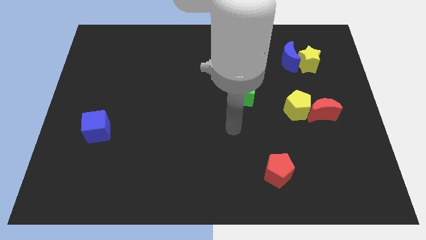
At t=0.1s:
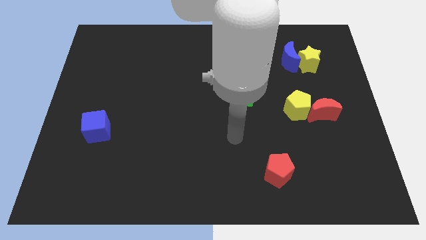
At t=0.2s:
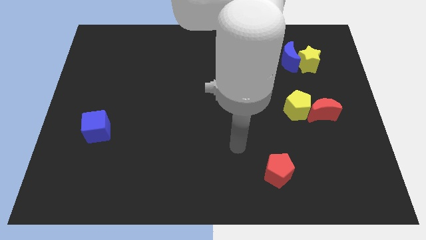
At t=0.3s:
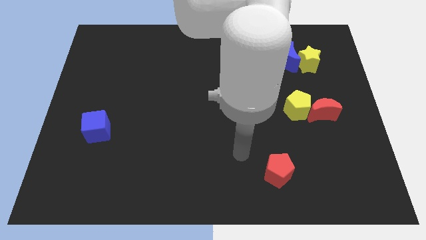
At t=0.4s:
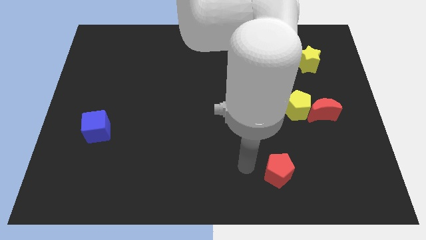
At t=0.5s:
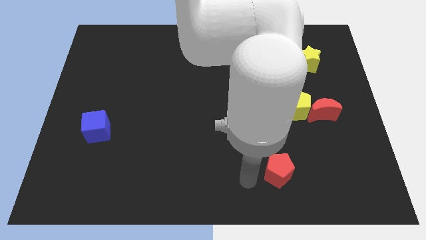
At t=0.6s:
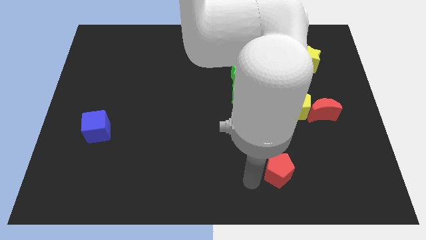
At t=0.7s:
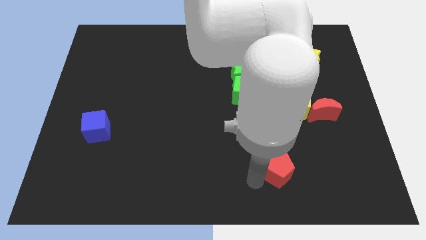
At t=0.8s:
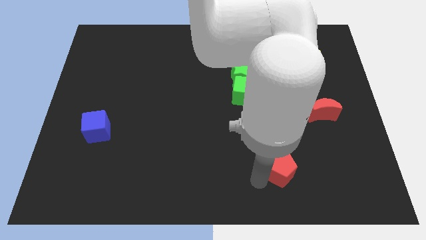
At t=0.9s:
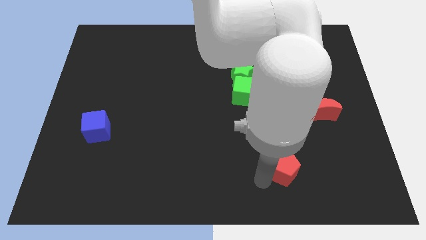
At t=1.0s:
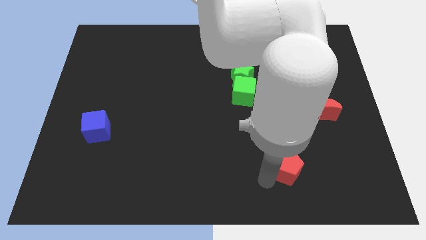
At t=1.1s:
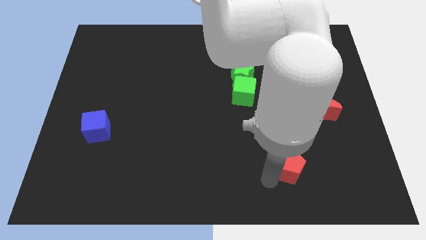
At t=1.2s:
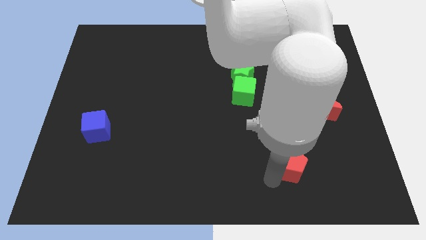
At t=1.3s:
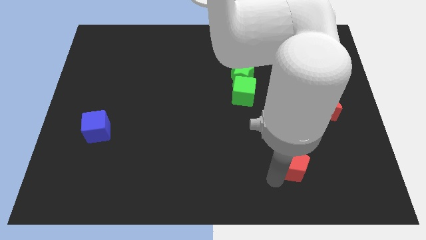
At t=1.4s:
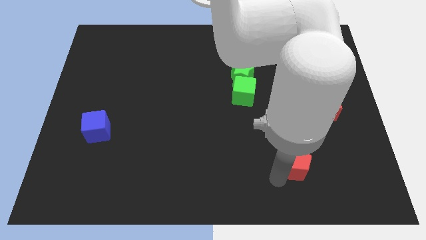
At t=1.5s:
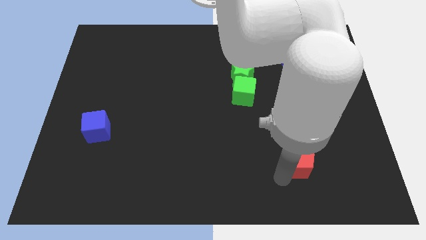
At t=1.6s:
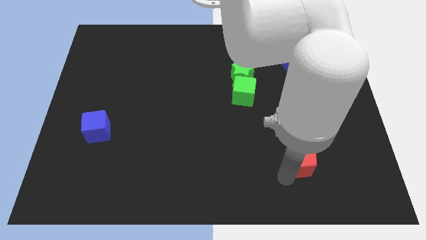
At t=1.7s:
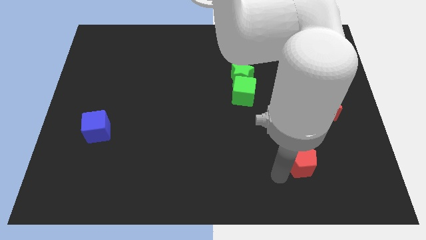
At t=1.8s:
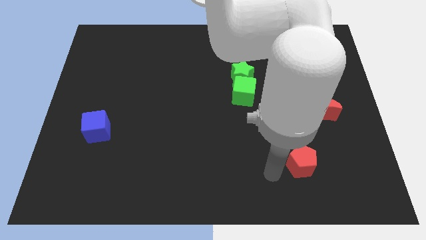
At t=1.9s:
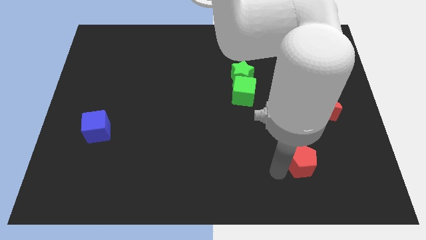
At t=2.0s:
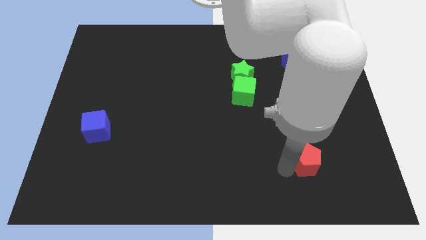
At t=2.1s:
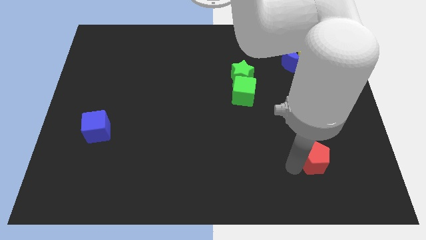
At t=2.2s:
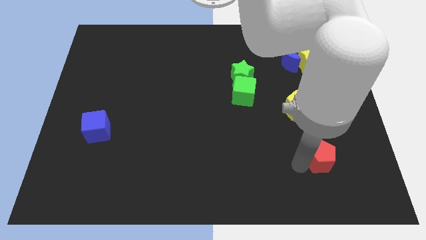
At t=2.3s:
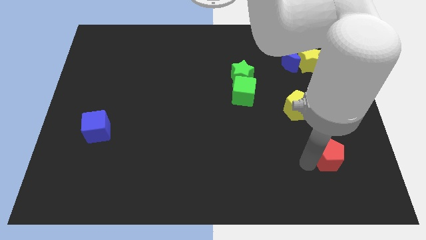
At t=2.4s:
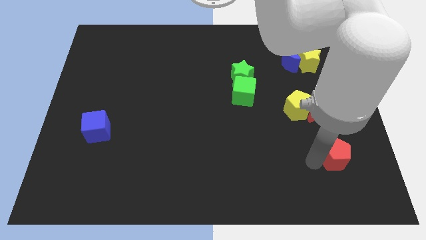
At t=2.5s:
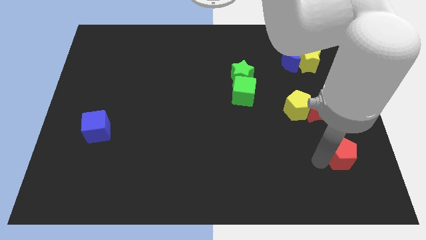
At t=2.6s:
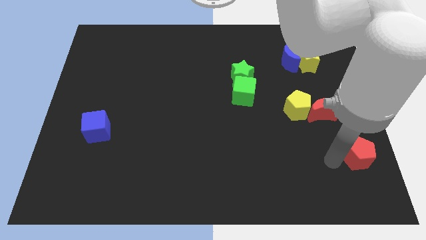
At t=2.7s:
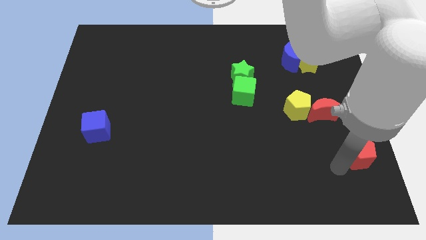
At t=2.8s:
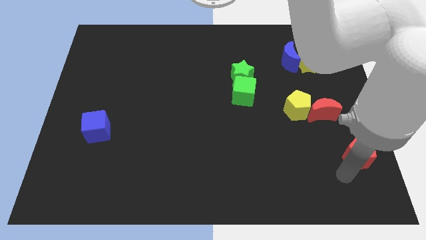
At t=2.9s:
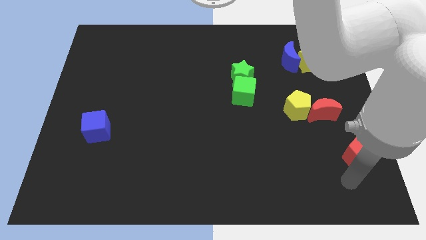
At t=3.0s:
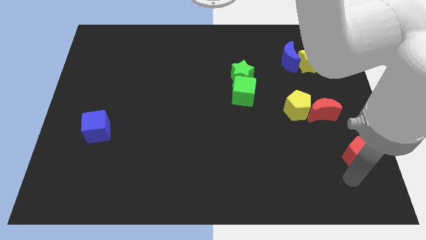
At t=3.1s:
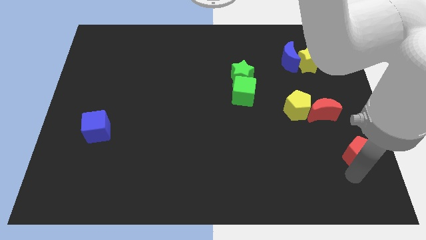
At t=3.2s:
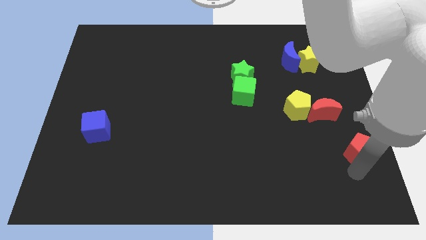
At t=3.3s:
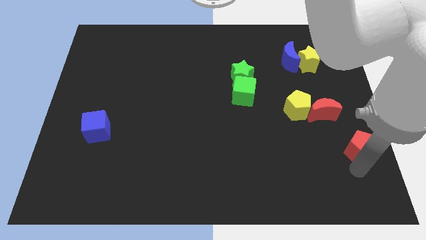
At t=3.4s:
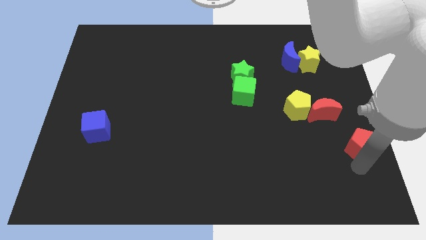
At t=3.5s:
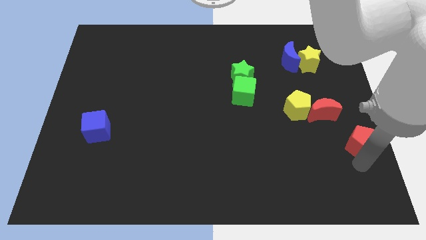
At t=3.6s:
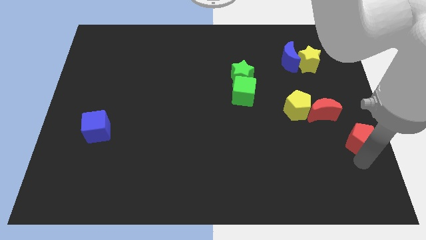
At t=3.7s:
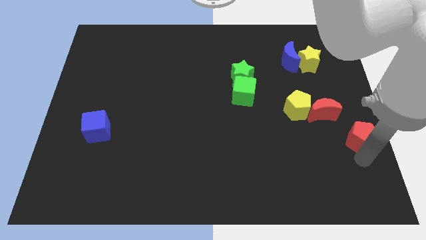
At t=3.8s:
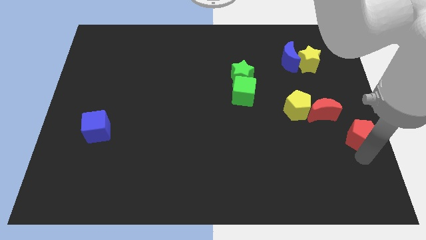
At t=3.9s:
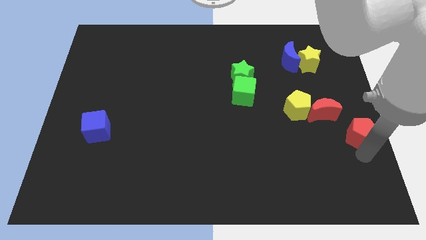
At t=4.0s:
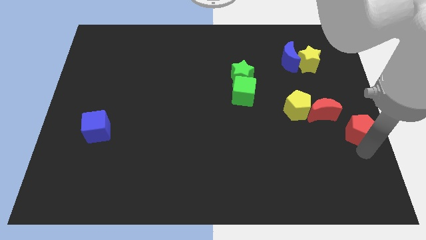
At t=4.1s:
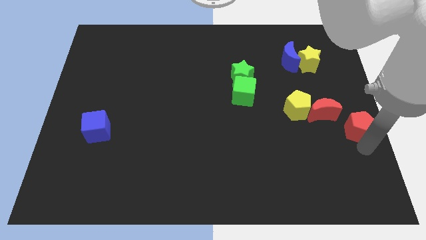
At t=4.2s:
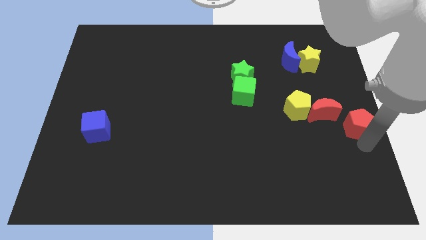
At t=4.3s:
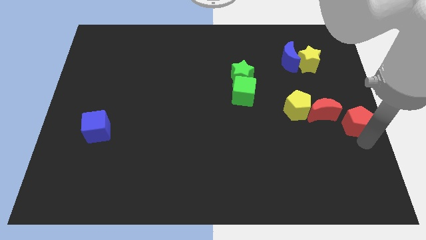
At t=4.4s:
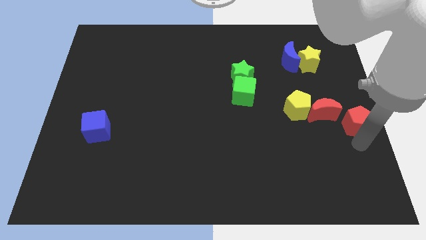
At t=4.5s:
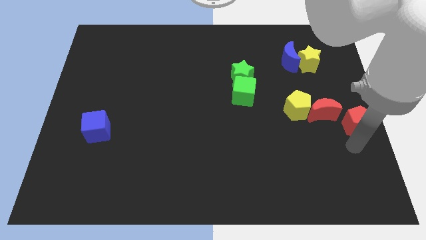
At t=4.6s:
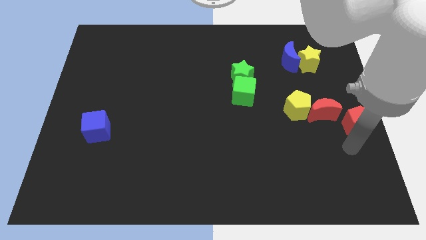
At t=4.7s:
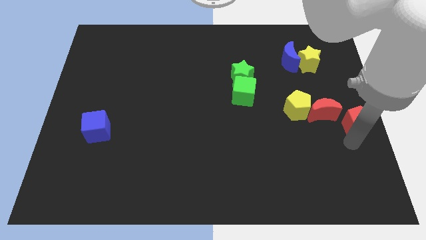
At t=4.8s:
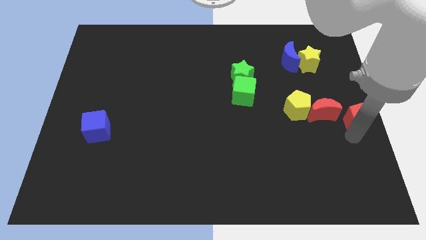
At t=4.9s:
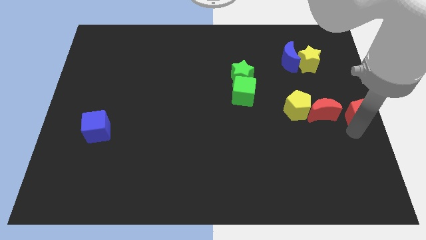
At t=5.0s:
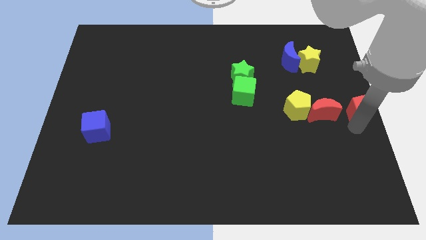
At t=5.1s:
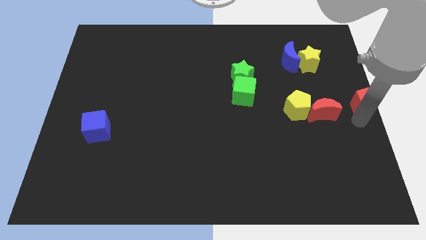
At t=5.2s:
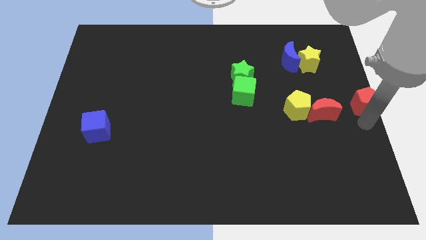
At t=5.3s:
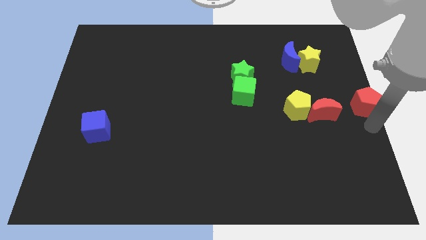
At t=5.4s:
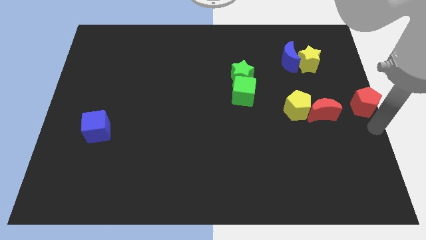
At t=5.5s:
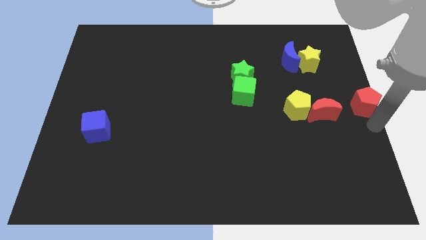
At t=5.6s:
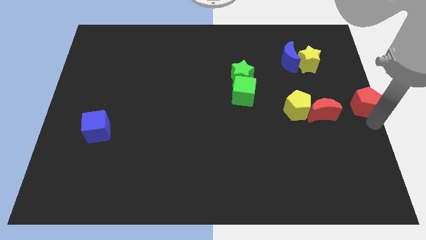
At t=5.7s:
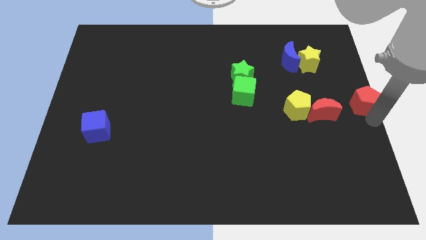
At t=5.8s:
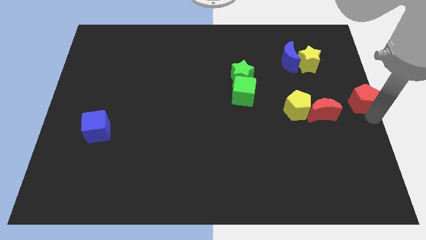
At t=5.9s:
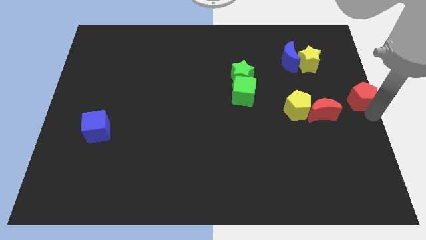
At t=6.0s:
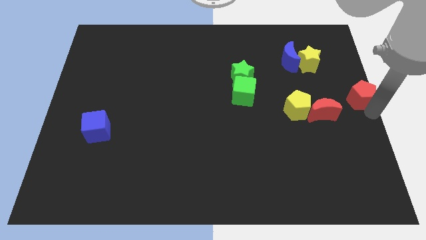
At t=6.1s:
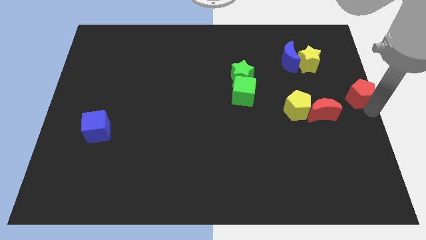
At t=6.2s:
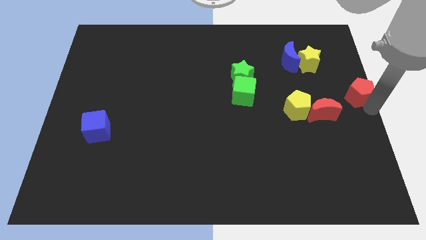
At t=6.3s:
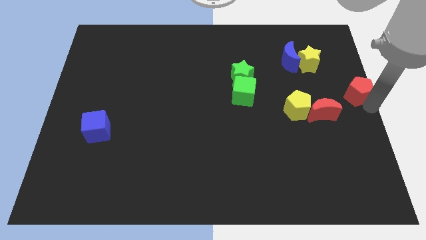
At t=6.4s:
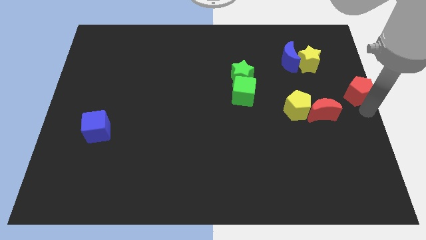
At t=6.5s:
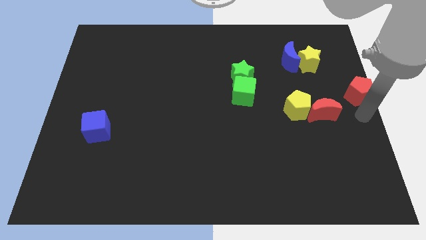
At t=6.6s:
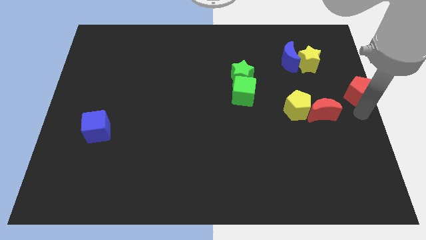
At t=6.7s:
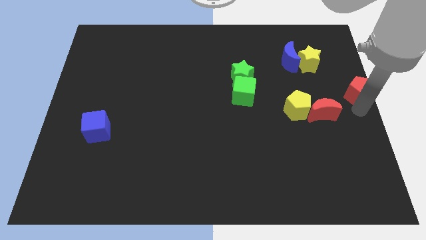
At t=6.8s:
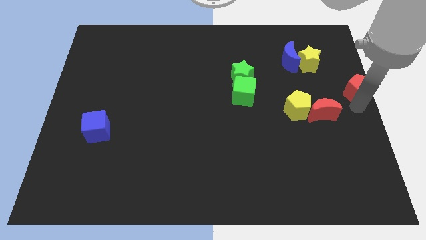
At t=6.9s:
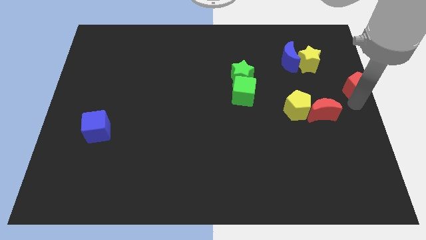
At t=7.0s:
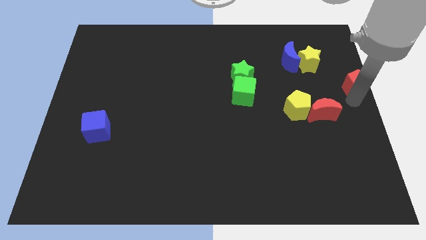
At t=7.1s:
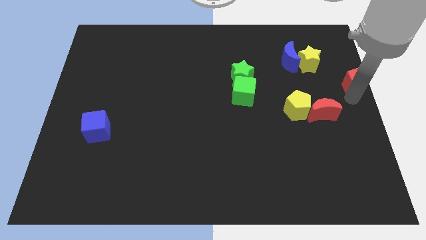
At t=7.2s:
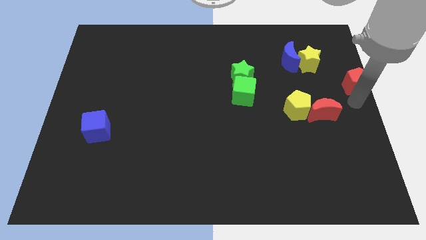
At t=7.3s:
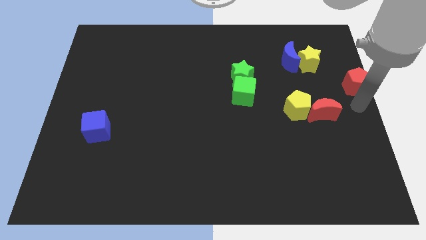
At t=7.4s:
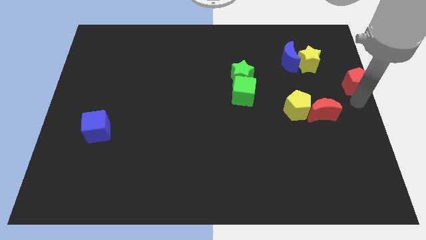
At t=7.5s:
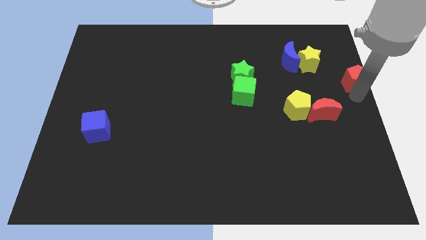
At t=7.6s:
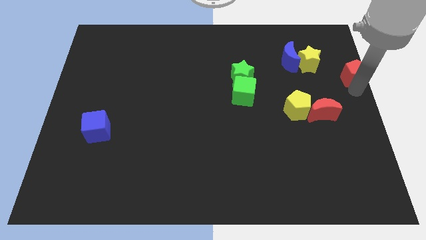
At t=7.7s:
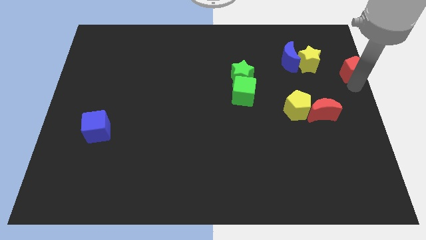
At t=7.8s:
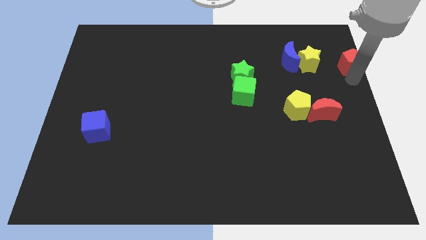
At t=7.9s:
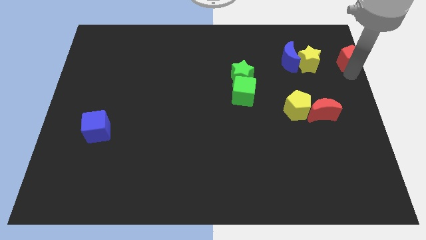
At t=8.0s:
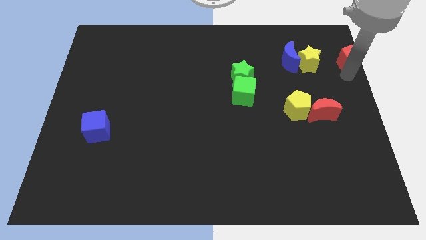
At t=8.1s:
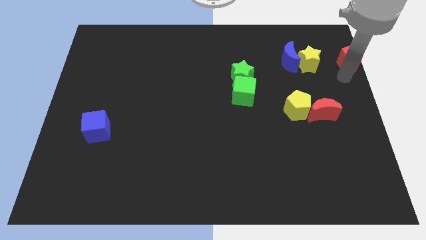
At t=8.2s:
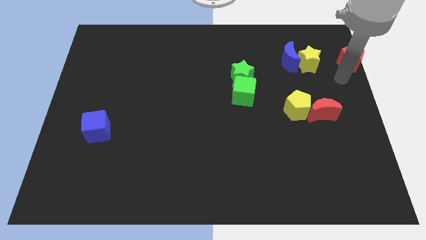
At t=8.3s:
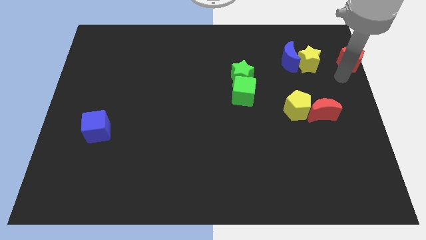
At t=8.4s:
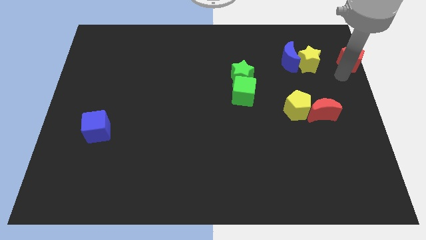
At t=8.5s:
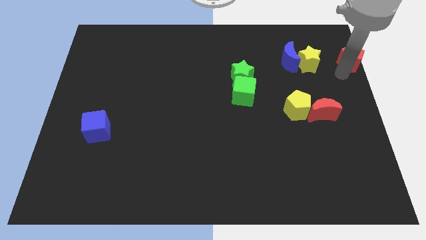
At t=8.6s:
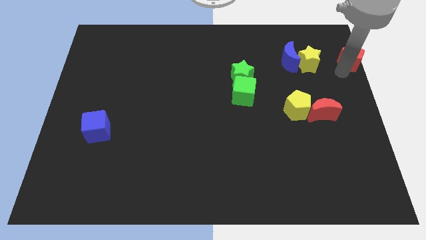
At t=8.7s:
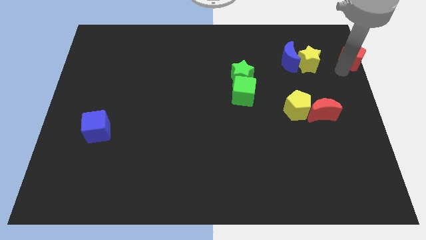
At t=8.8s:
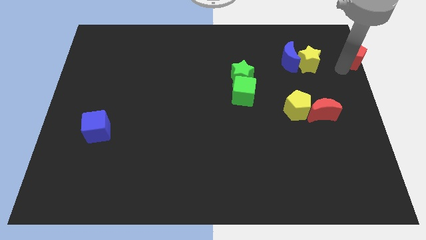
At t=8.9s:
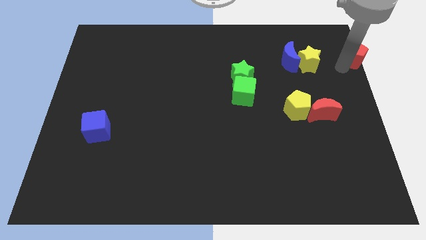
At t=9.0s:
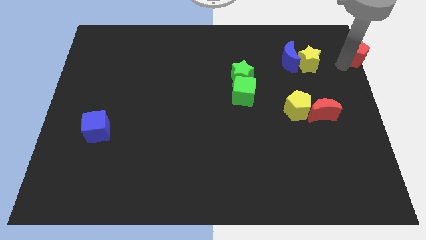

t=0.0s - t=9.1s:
move the red pentagon to the top right of the board
